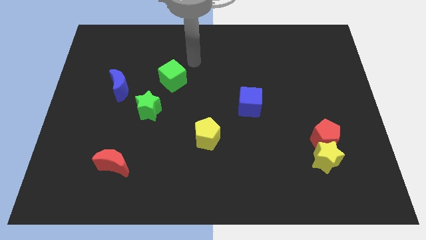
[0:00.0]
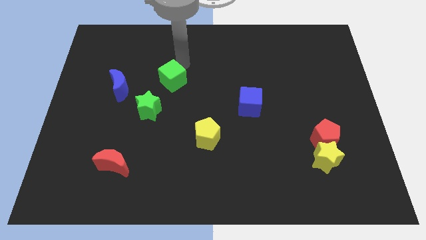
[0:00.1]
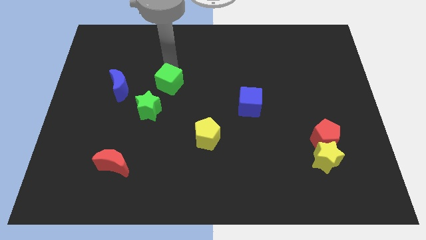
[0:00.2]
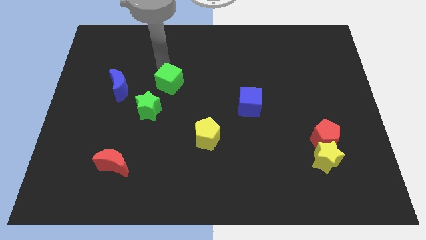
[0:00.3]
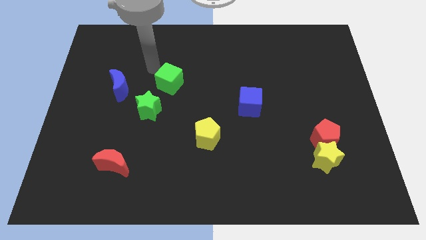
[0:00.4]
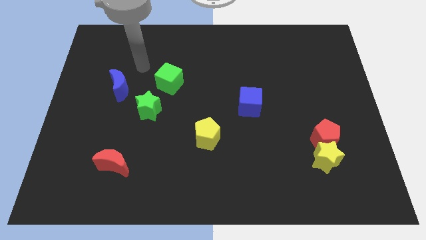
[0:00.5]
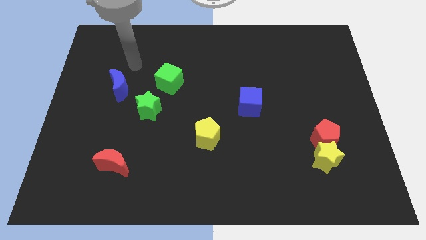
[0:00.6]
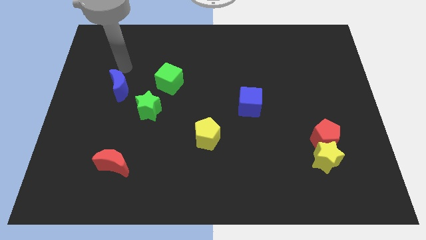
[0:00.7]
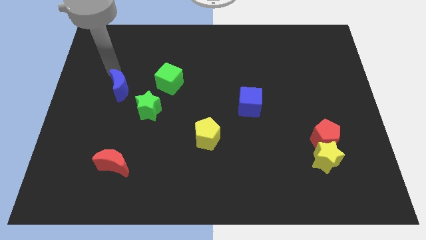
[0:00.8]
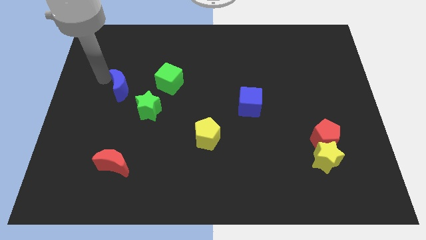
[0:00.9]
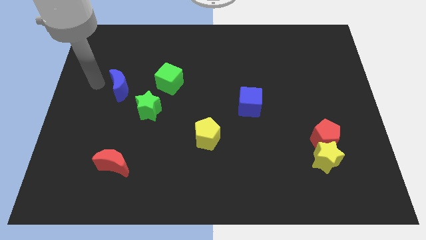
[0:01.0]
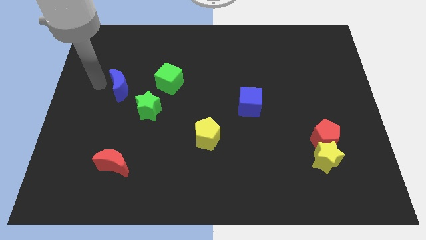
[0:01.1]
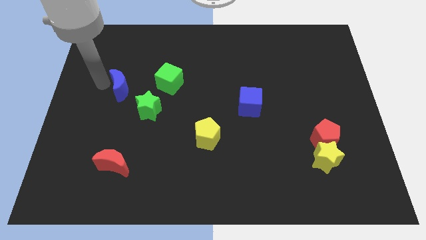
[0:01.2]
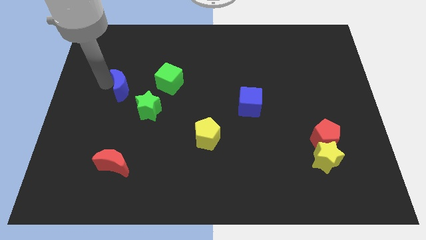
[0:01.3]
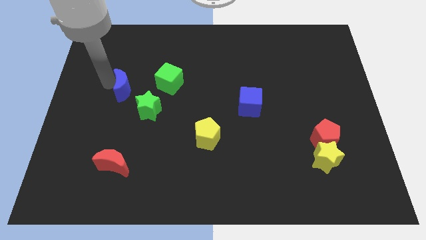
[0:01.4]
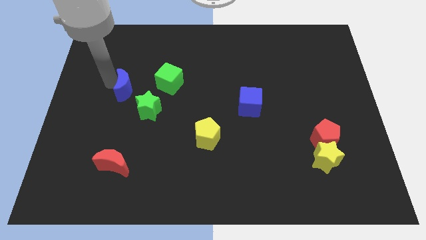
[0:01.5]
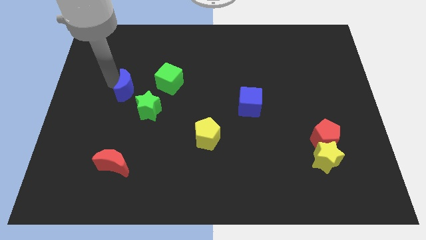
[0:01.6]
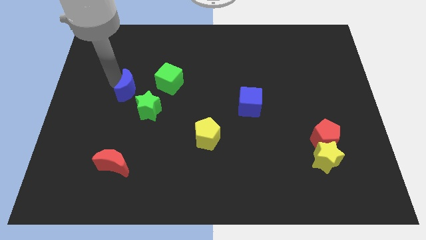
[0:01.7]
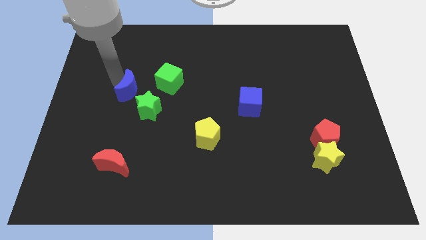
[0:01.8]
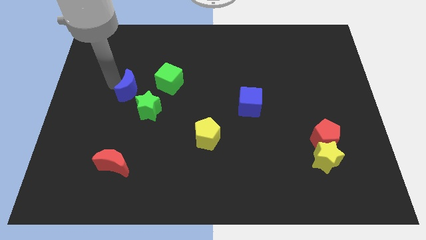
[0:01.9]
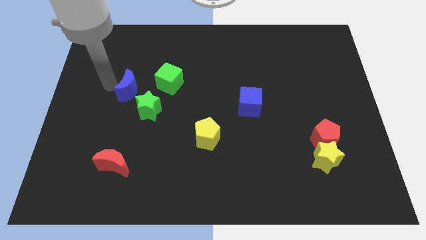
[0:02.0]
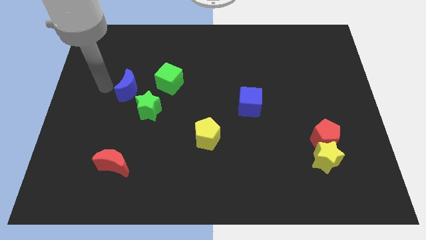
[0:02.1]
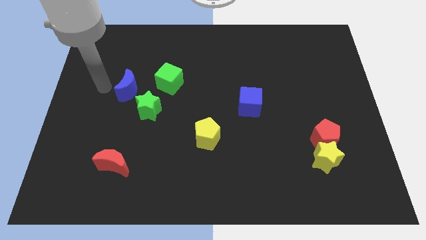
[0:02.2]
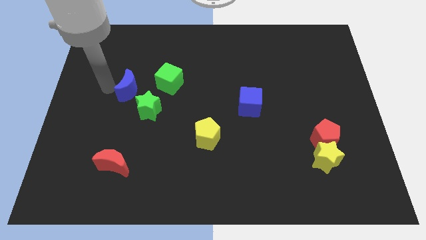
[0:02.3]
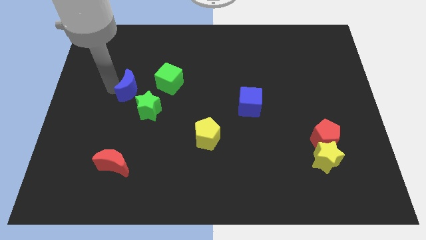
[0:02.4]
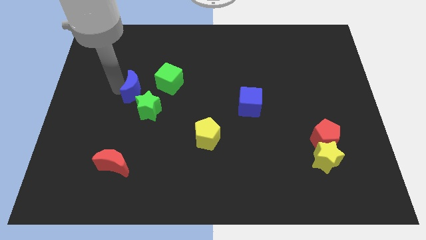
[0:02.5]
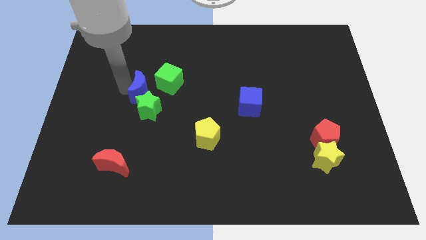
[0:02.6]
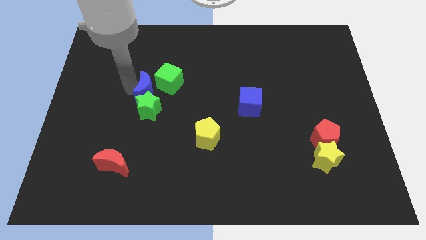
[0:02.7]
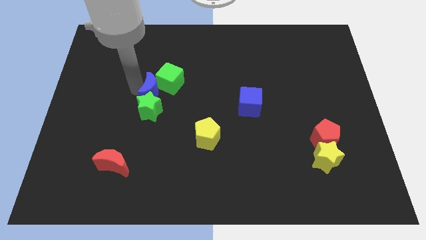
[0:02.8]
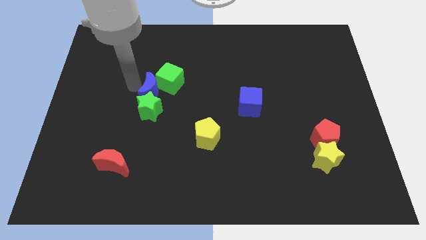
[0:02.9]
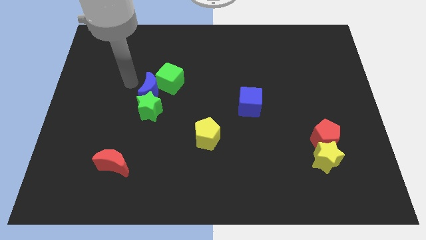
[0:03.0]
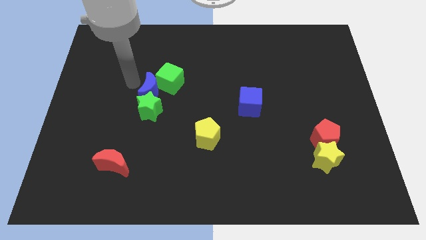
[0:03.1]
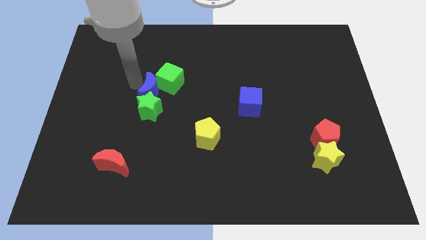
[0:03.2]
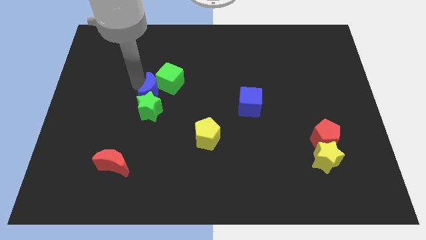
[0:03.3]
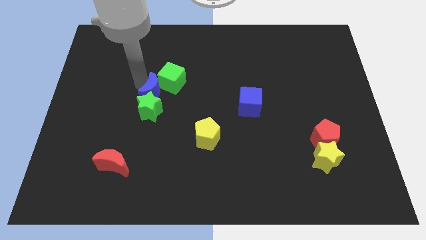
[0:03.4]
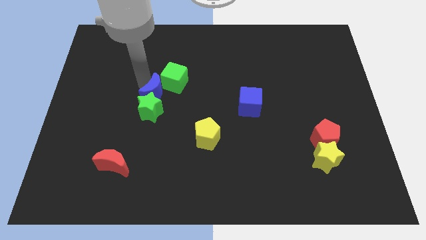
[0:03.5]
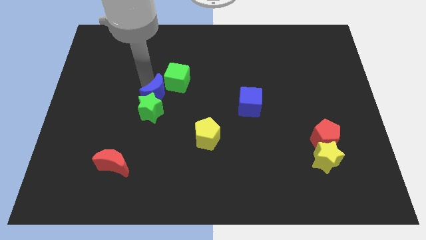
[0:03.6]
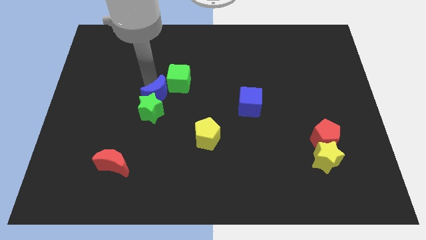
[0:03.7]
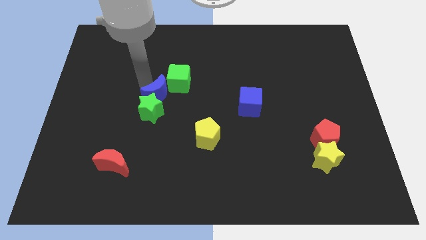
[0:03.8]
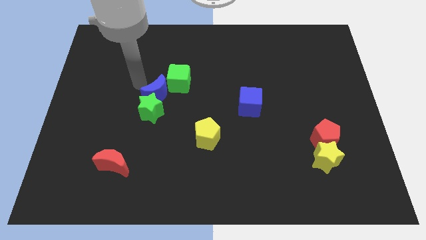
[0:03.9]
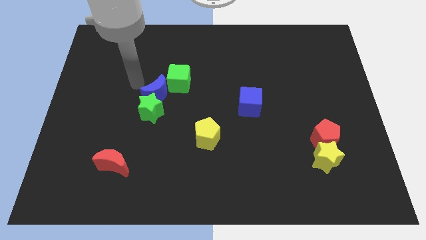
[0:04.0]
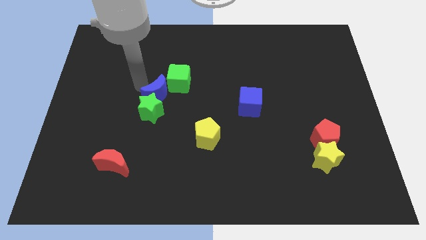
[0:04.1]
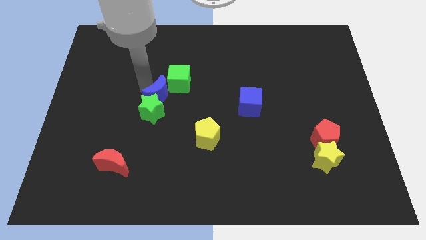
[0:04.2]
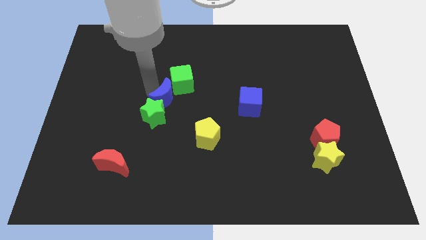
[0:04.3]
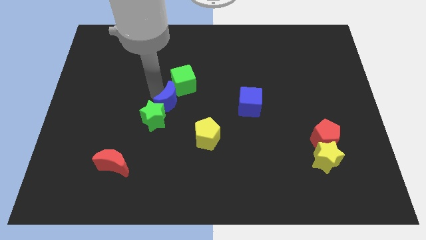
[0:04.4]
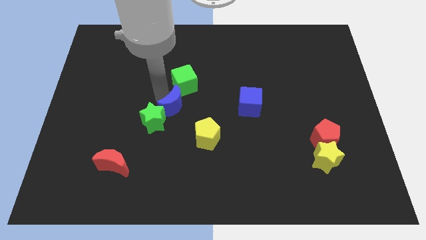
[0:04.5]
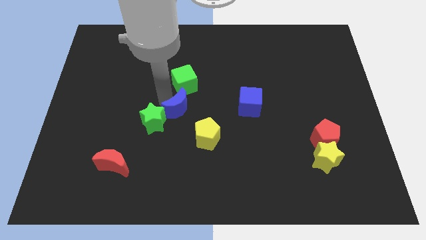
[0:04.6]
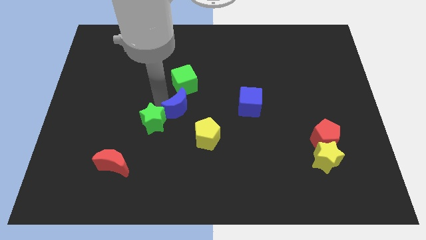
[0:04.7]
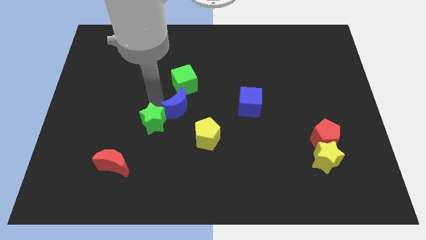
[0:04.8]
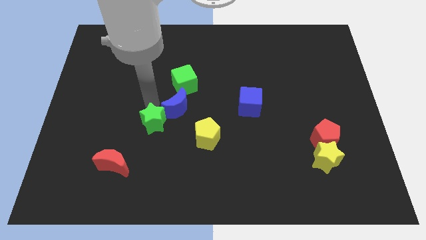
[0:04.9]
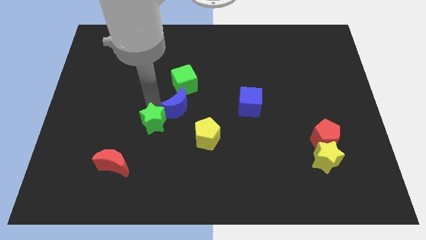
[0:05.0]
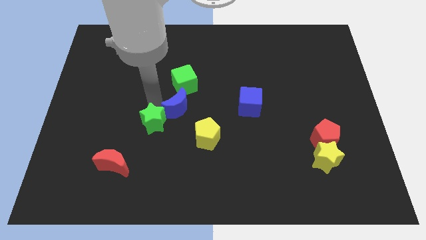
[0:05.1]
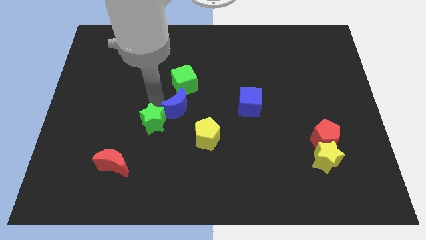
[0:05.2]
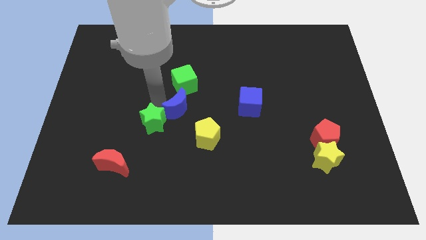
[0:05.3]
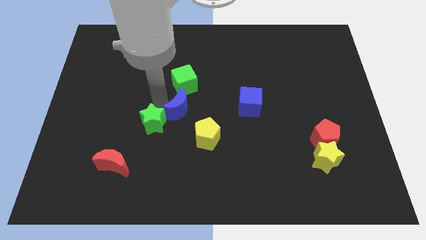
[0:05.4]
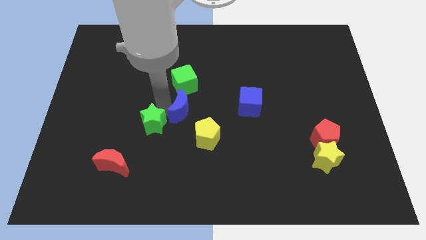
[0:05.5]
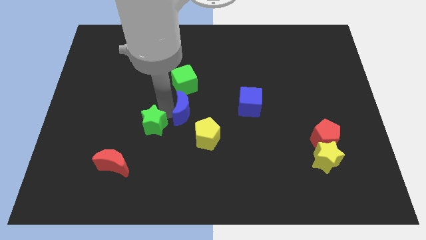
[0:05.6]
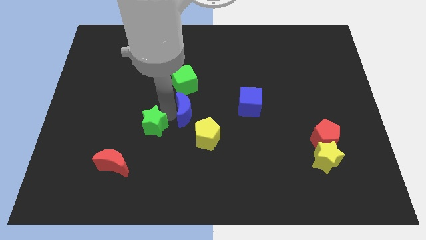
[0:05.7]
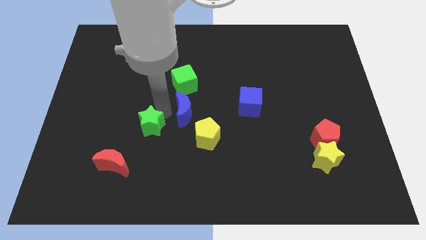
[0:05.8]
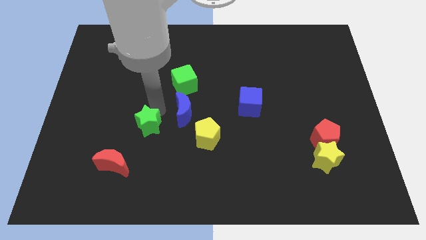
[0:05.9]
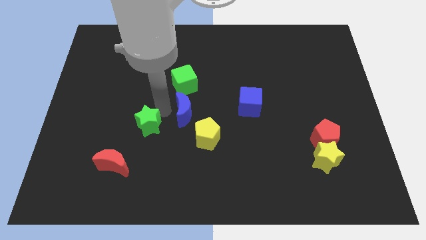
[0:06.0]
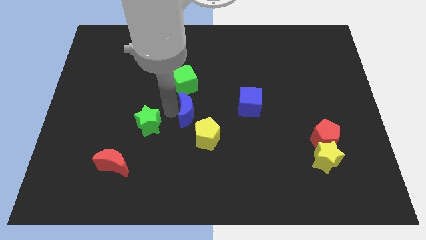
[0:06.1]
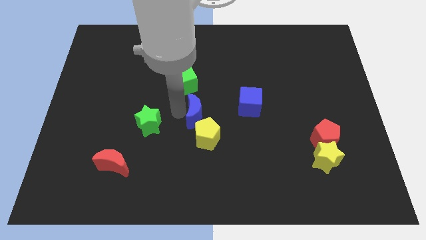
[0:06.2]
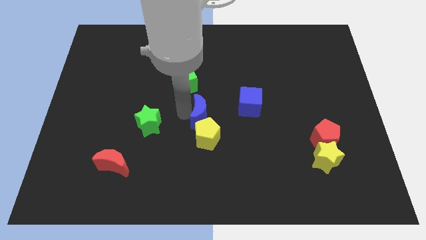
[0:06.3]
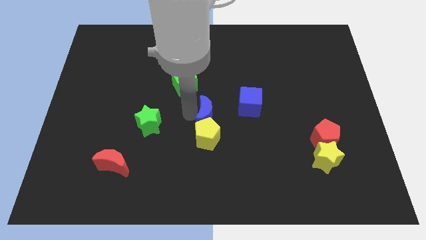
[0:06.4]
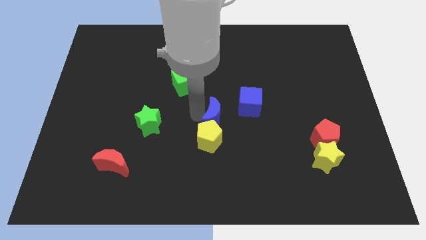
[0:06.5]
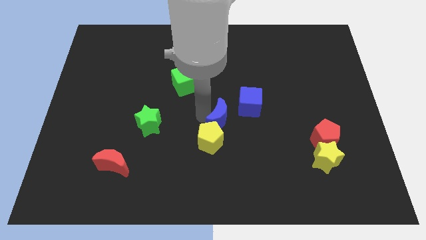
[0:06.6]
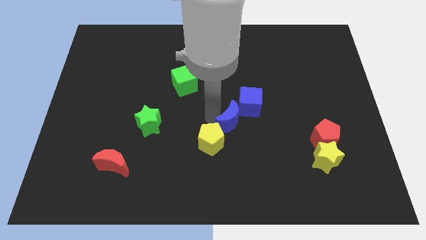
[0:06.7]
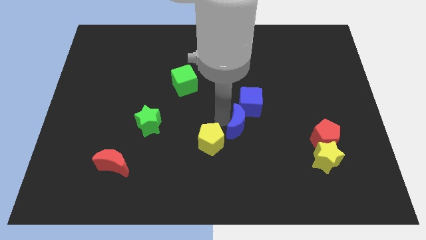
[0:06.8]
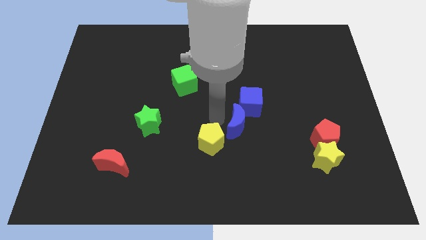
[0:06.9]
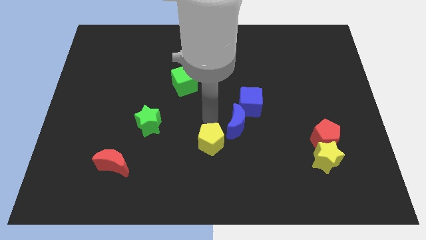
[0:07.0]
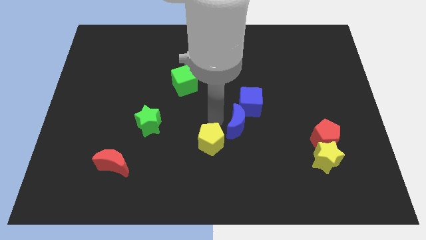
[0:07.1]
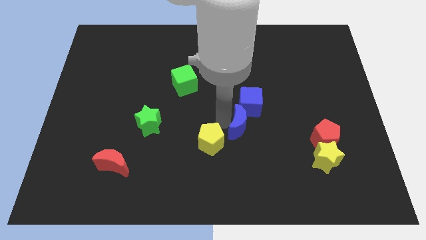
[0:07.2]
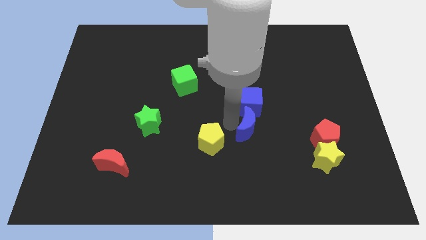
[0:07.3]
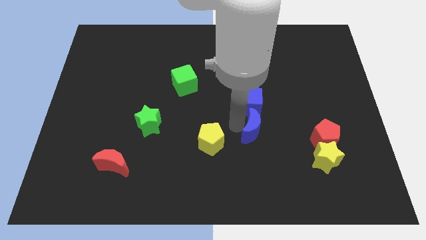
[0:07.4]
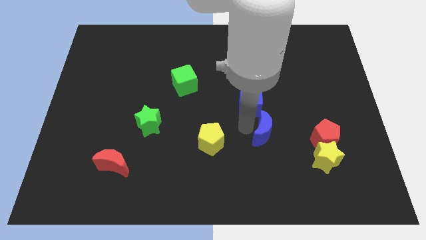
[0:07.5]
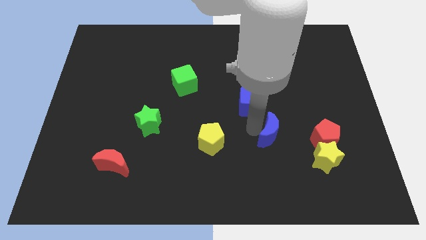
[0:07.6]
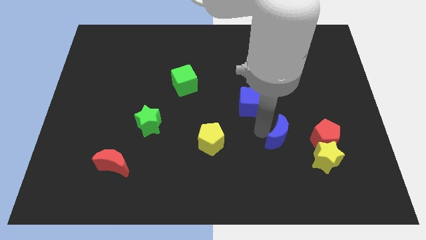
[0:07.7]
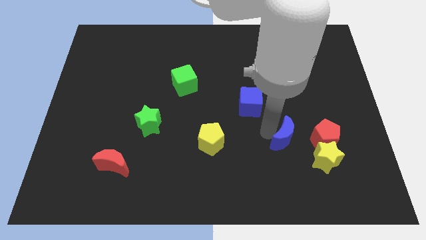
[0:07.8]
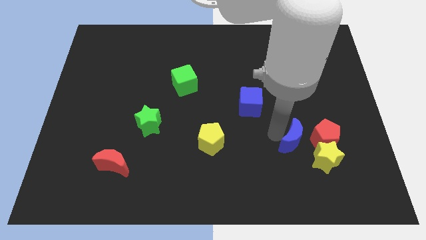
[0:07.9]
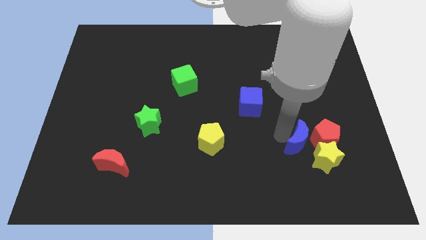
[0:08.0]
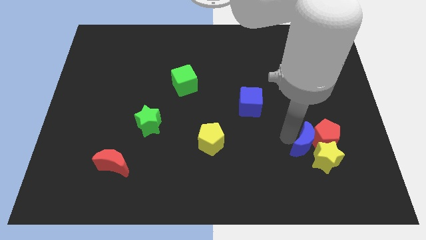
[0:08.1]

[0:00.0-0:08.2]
push the blue moon next to the yellow star
